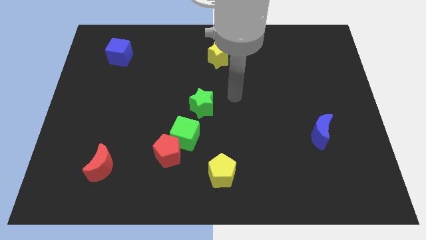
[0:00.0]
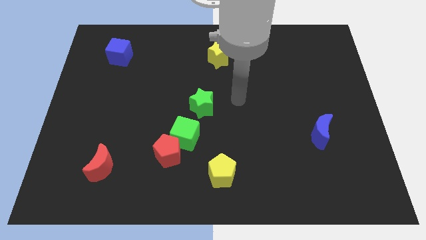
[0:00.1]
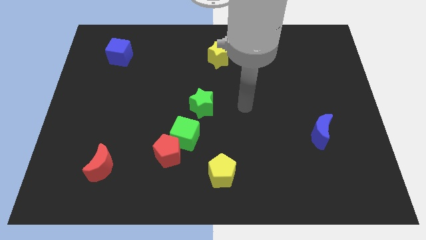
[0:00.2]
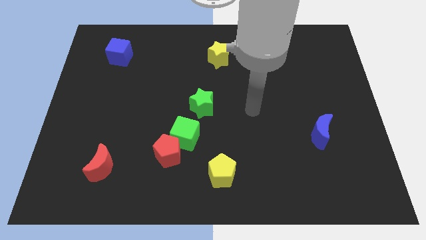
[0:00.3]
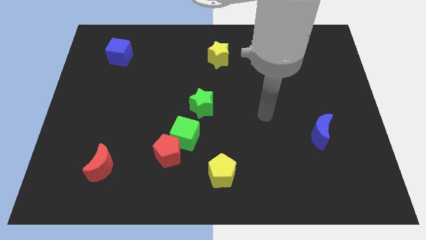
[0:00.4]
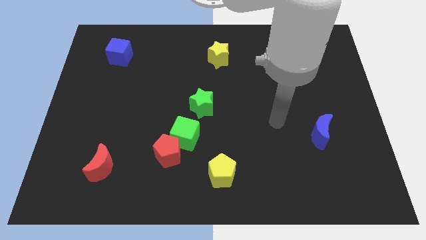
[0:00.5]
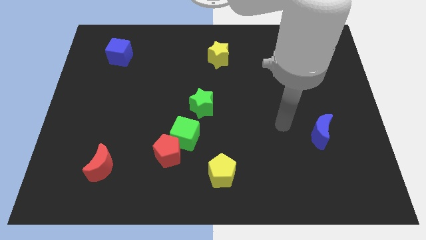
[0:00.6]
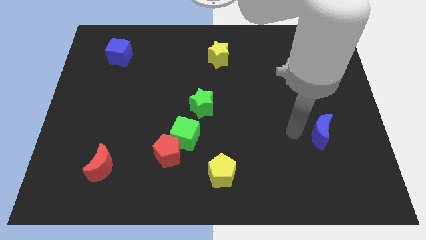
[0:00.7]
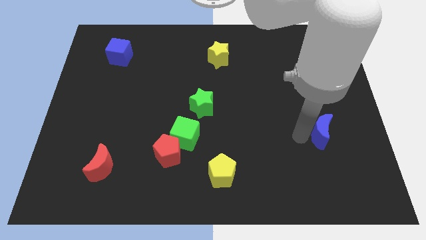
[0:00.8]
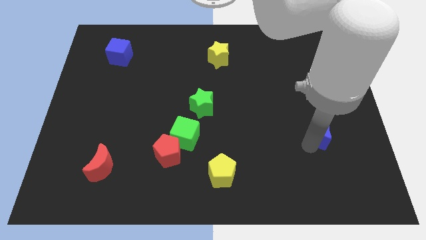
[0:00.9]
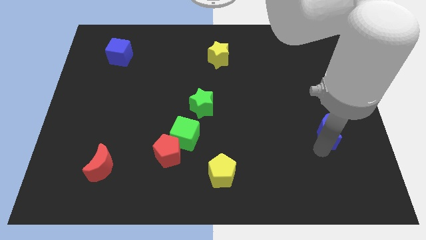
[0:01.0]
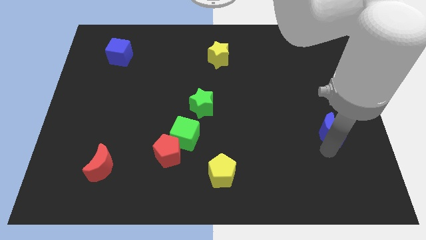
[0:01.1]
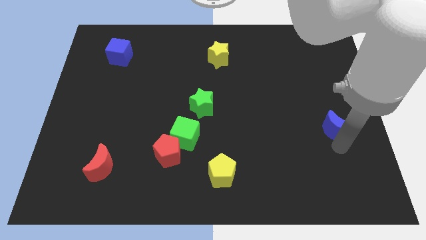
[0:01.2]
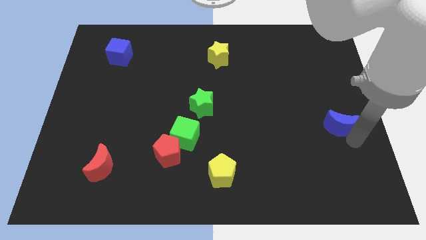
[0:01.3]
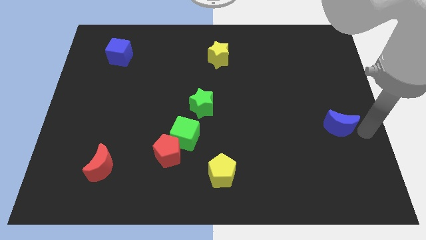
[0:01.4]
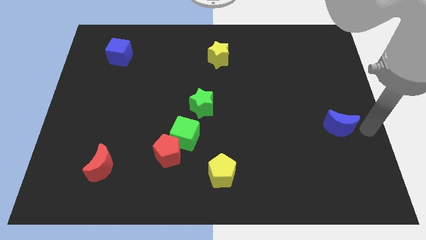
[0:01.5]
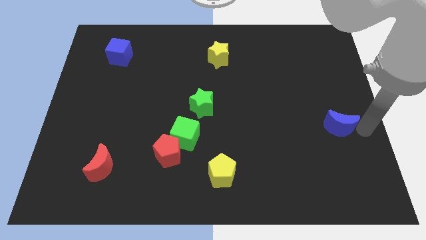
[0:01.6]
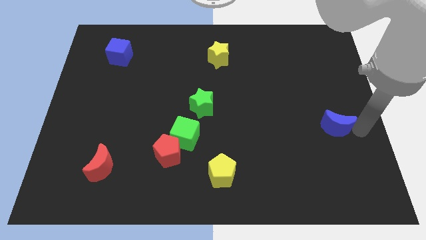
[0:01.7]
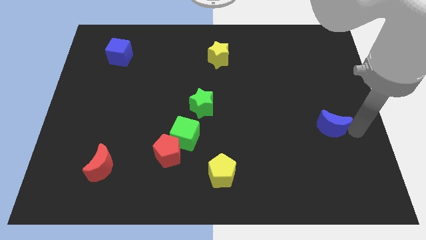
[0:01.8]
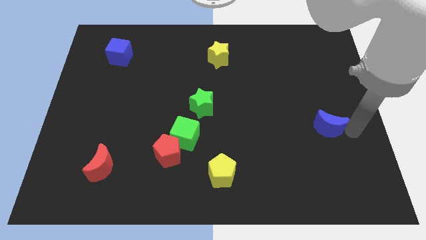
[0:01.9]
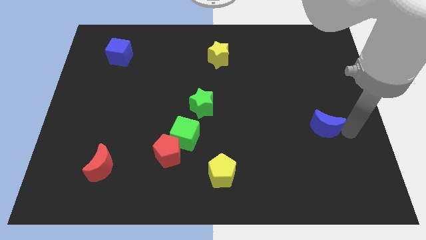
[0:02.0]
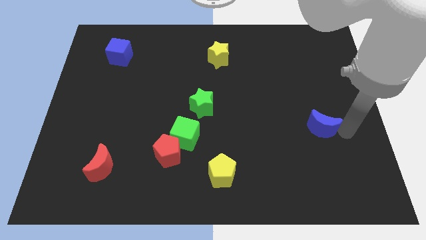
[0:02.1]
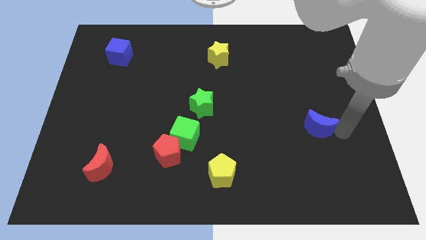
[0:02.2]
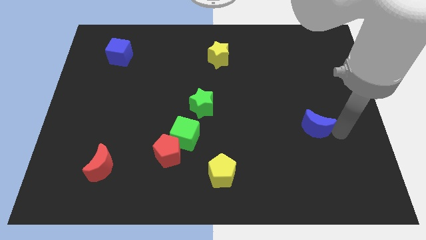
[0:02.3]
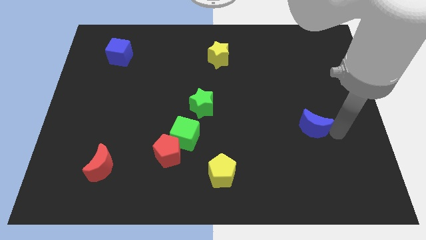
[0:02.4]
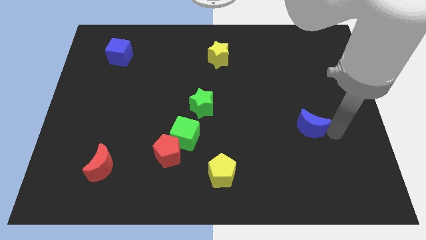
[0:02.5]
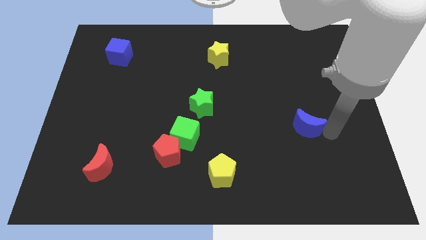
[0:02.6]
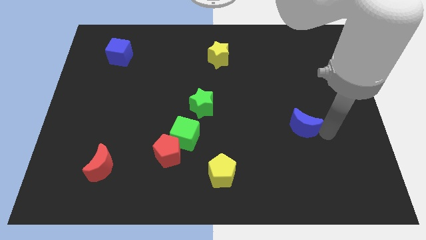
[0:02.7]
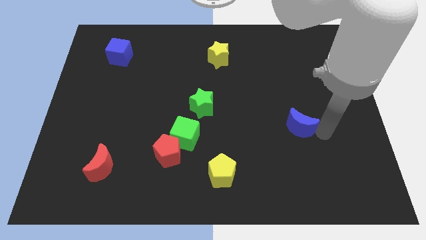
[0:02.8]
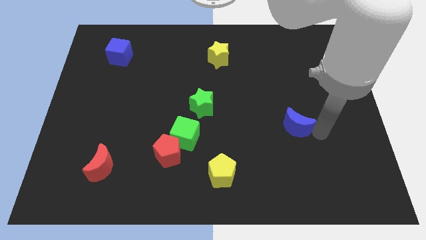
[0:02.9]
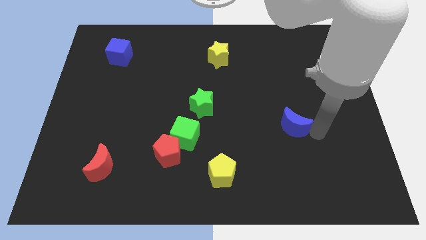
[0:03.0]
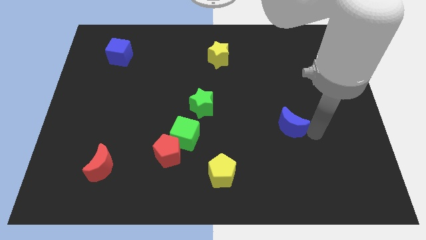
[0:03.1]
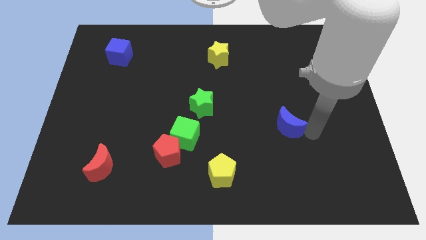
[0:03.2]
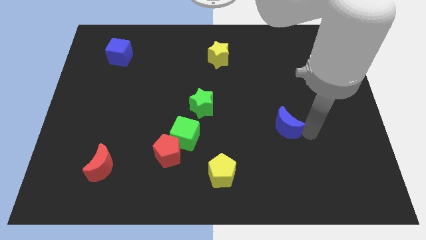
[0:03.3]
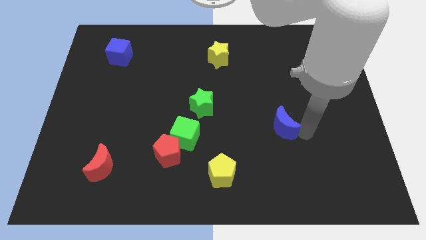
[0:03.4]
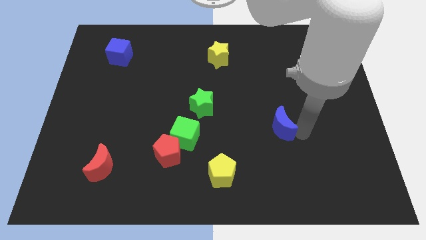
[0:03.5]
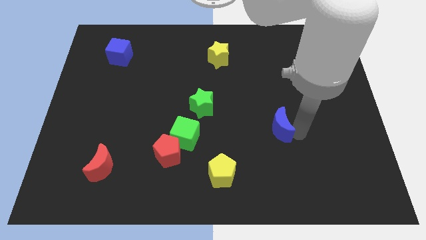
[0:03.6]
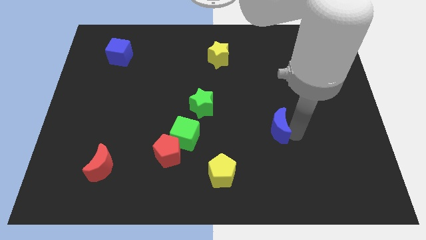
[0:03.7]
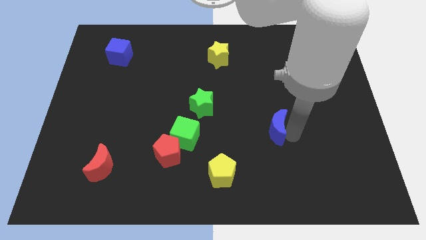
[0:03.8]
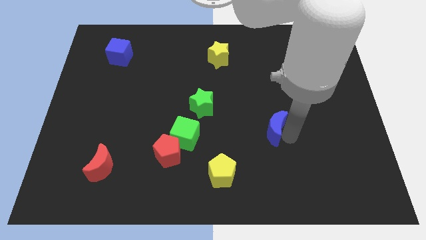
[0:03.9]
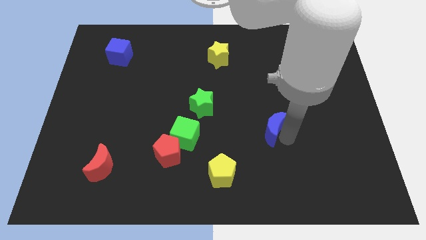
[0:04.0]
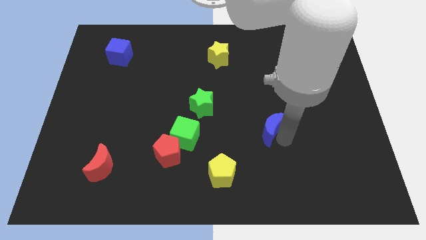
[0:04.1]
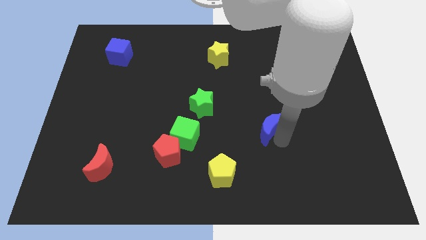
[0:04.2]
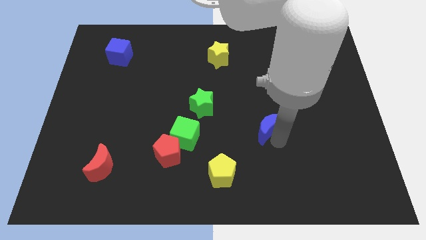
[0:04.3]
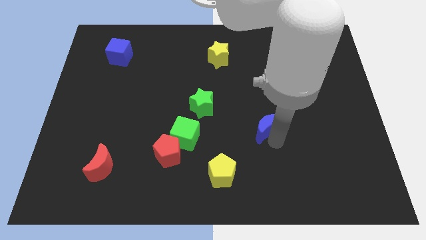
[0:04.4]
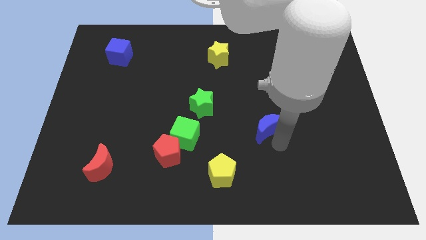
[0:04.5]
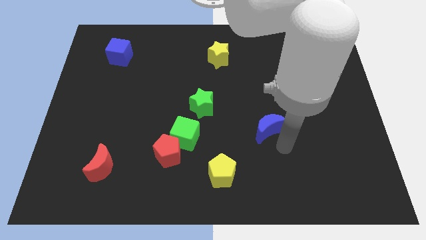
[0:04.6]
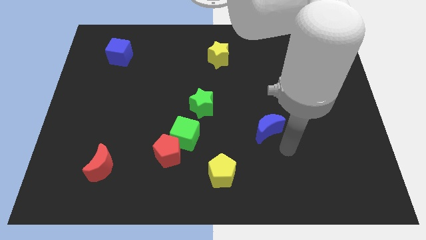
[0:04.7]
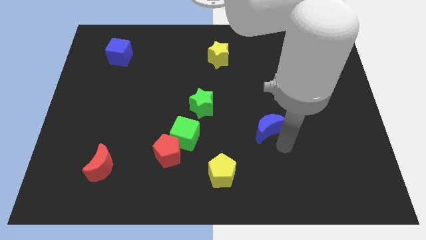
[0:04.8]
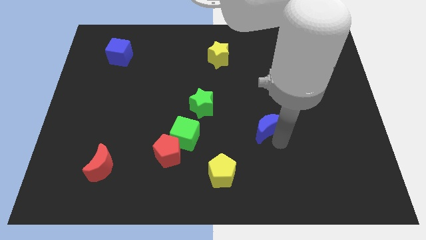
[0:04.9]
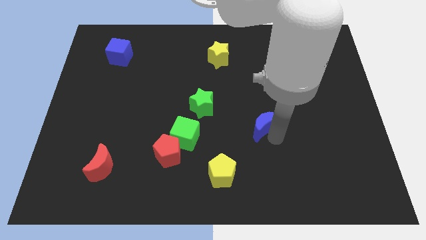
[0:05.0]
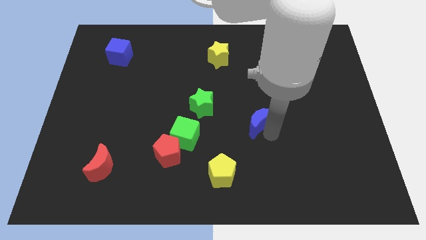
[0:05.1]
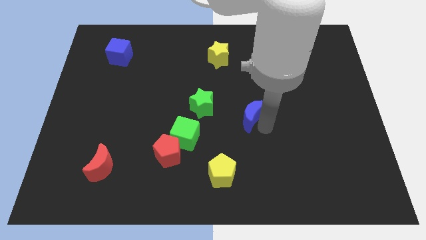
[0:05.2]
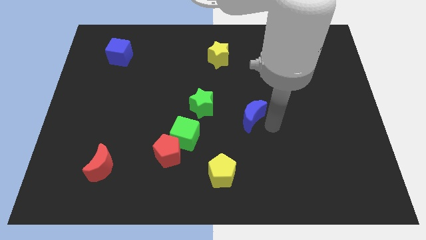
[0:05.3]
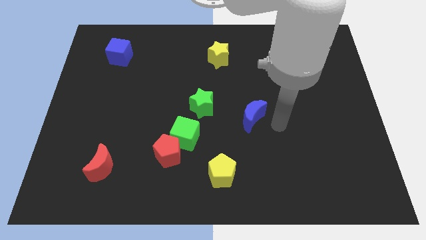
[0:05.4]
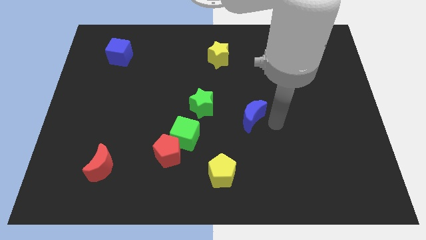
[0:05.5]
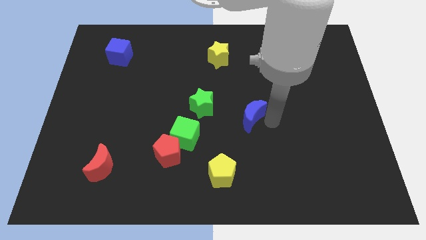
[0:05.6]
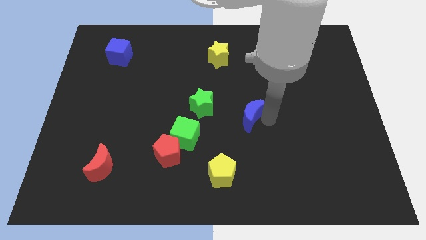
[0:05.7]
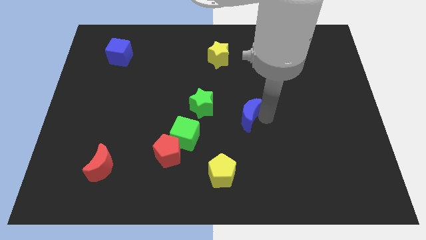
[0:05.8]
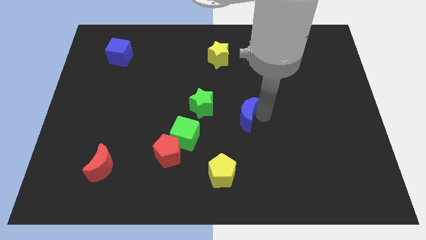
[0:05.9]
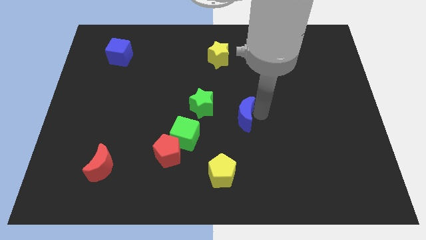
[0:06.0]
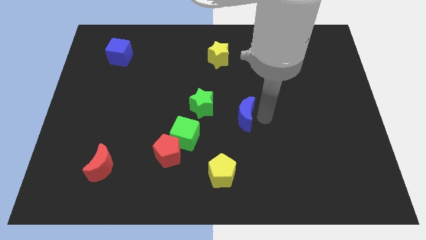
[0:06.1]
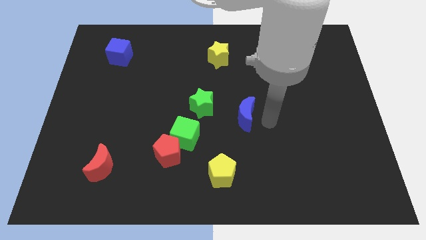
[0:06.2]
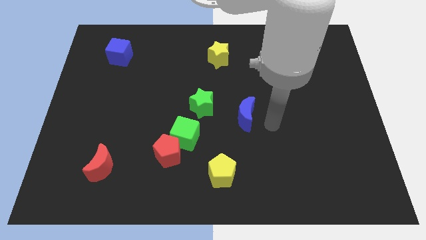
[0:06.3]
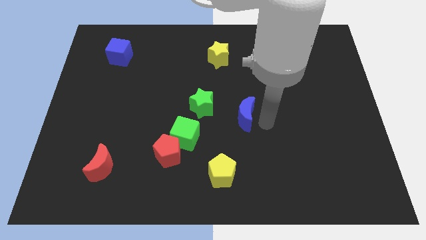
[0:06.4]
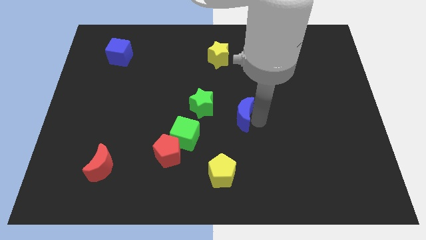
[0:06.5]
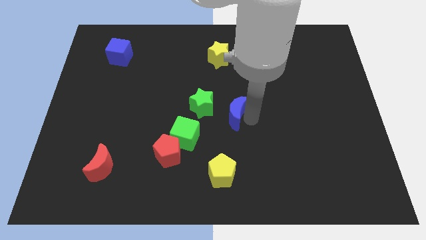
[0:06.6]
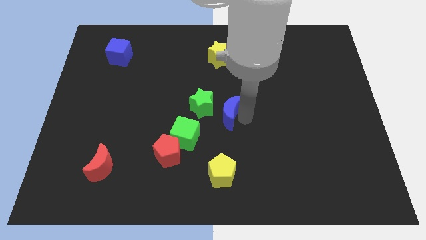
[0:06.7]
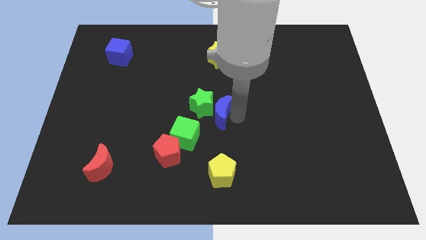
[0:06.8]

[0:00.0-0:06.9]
push the blue moon to the green star

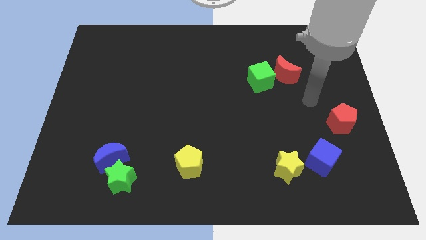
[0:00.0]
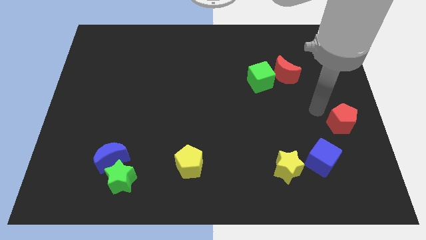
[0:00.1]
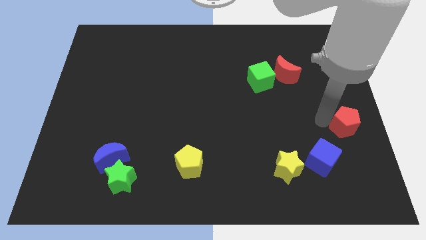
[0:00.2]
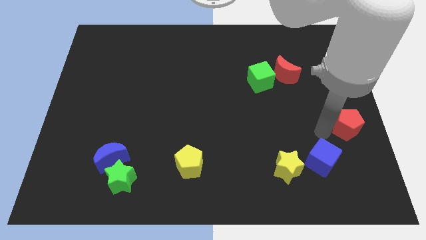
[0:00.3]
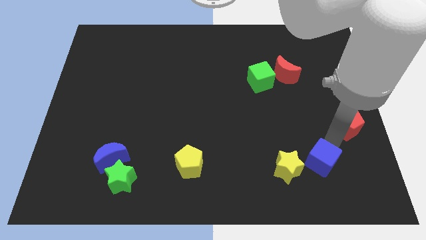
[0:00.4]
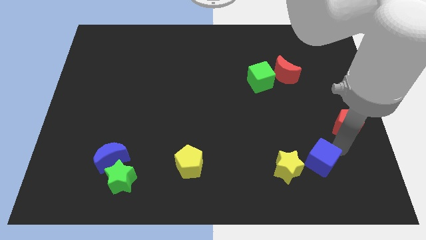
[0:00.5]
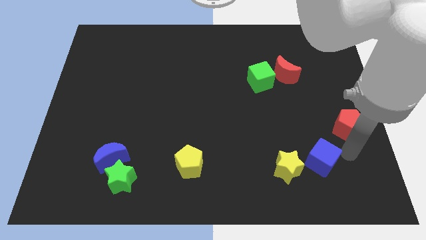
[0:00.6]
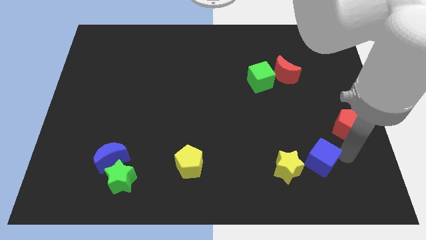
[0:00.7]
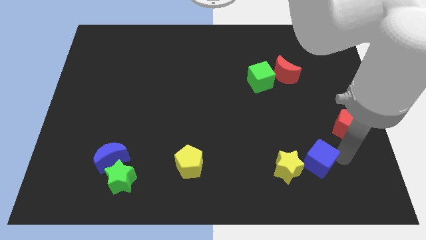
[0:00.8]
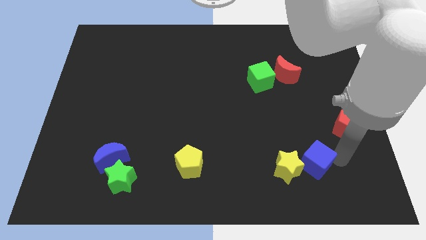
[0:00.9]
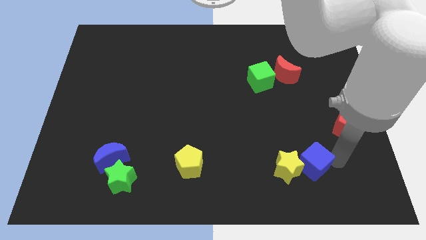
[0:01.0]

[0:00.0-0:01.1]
put the blue cube towards the yellow star
